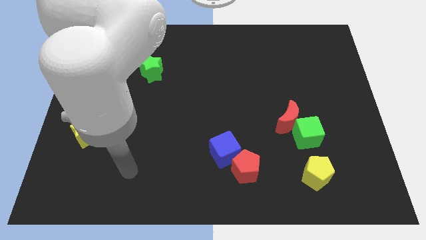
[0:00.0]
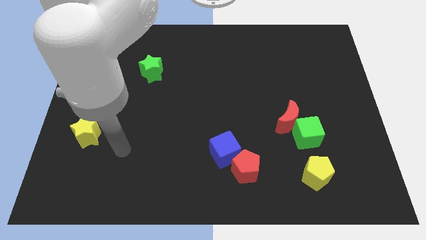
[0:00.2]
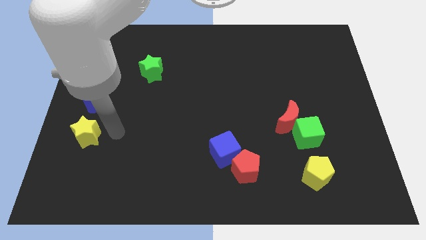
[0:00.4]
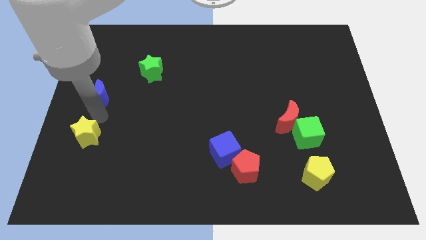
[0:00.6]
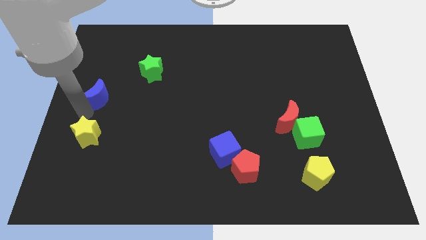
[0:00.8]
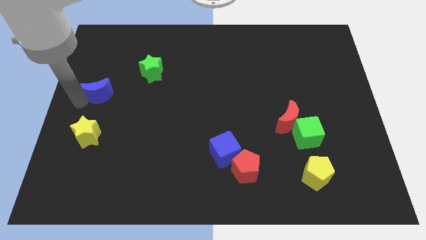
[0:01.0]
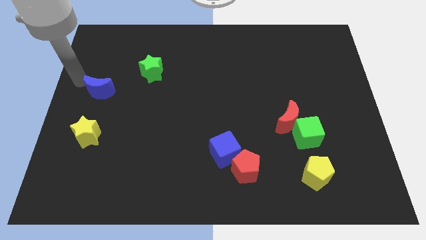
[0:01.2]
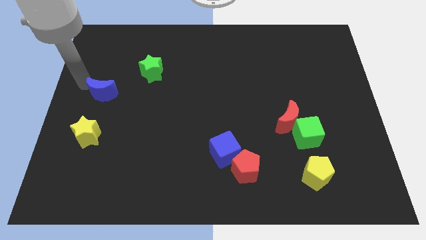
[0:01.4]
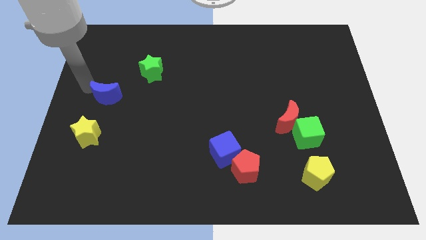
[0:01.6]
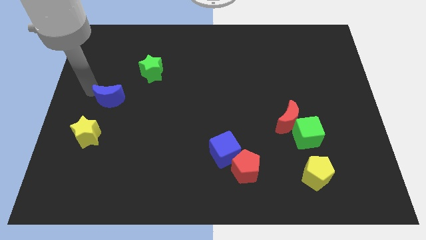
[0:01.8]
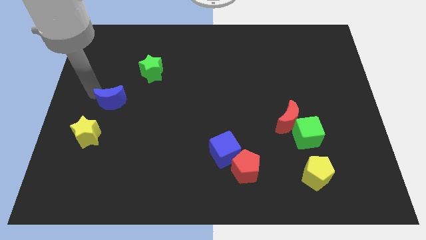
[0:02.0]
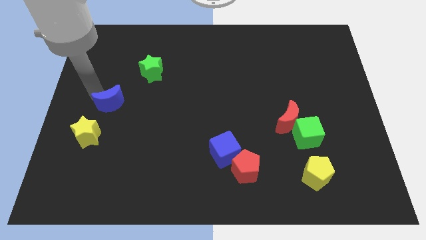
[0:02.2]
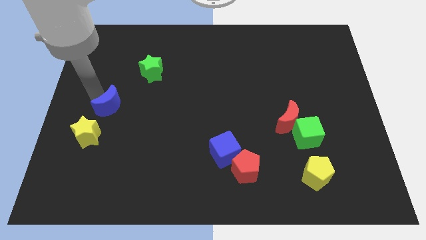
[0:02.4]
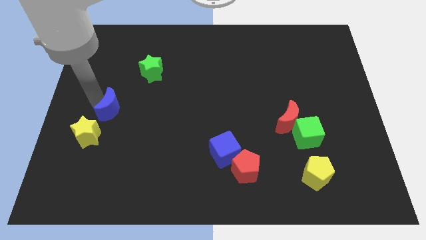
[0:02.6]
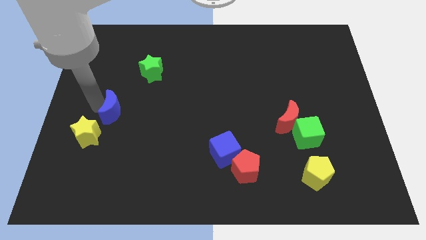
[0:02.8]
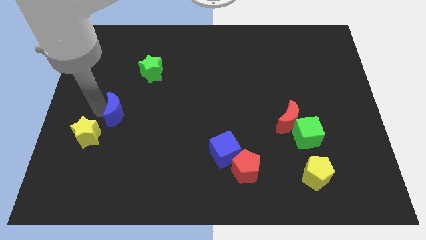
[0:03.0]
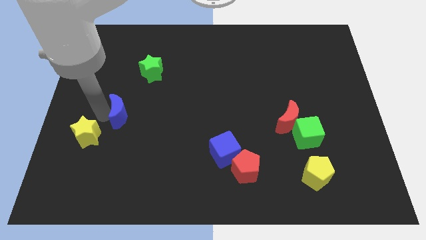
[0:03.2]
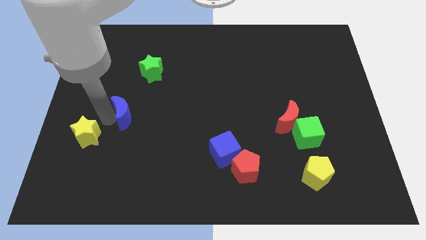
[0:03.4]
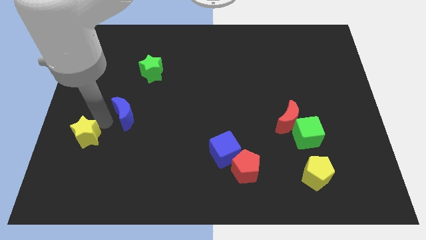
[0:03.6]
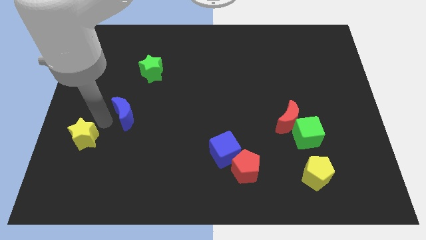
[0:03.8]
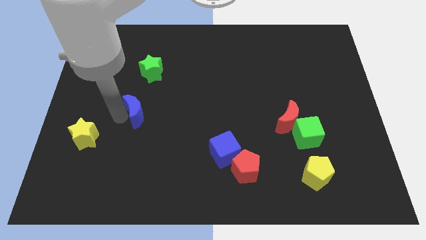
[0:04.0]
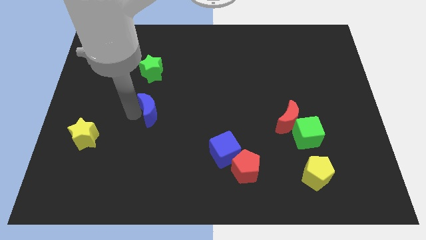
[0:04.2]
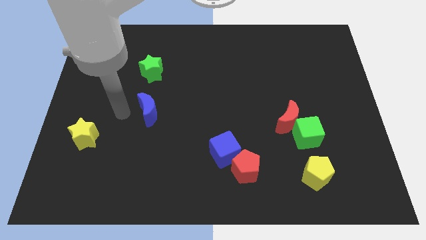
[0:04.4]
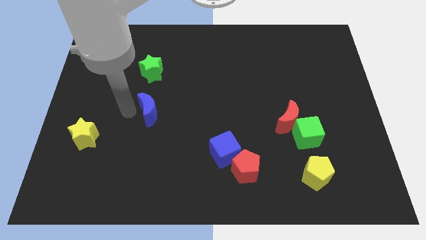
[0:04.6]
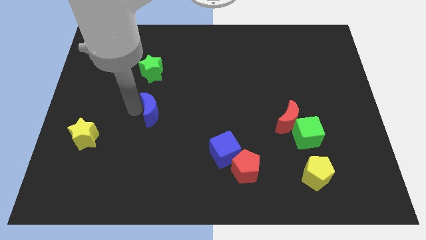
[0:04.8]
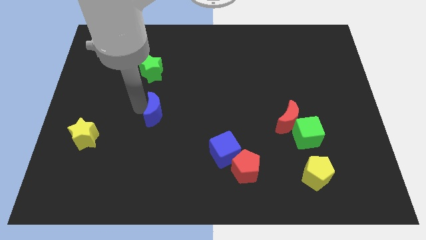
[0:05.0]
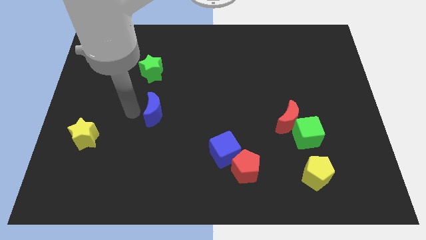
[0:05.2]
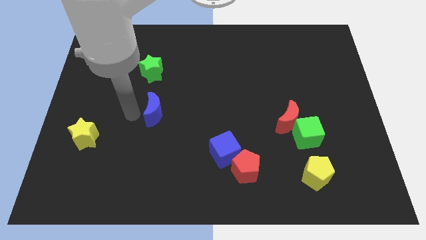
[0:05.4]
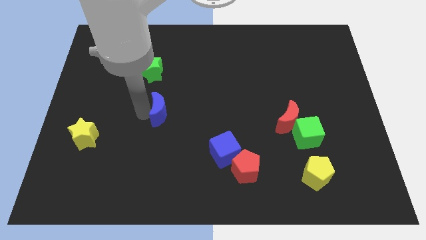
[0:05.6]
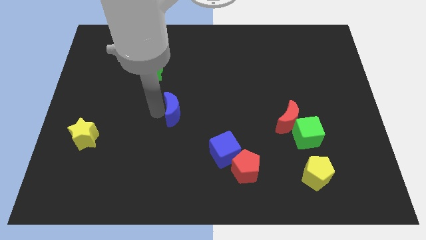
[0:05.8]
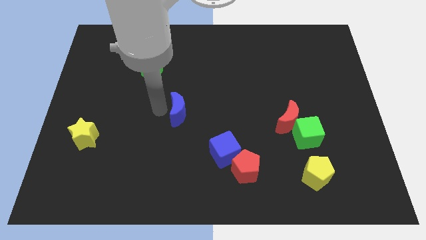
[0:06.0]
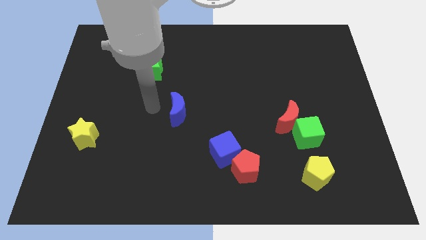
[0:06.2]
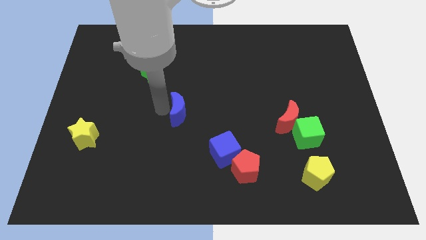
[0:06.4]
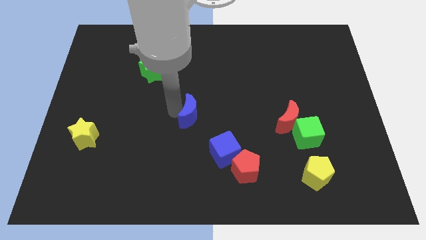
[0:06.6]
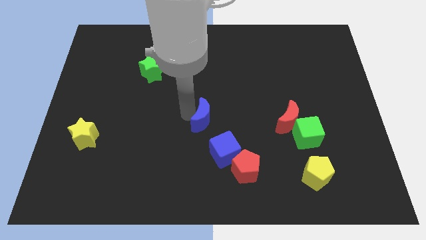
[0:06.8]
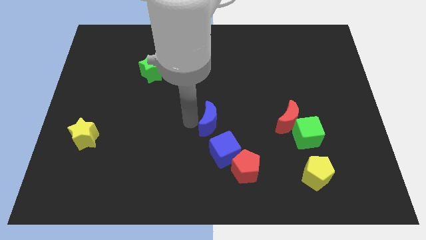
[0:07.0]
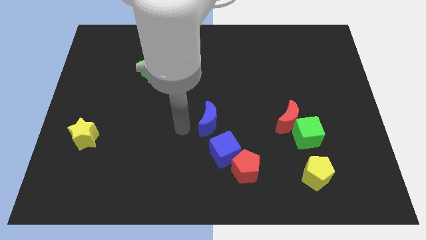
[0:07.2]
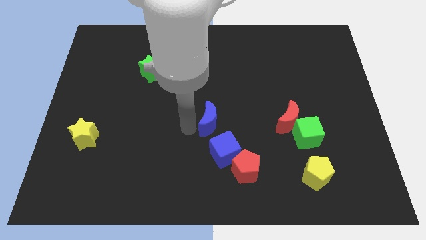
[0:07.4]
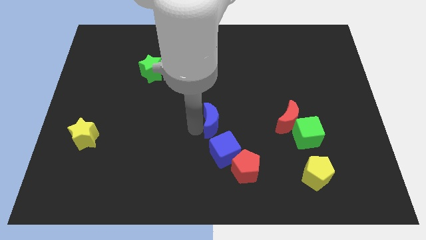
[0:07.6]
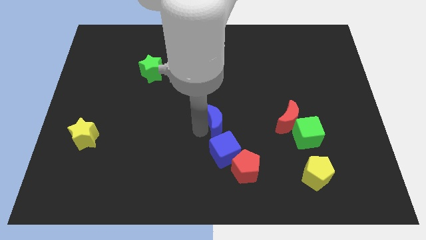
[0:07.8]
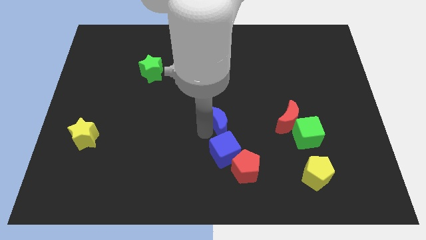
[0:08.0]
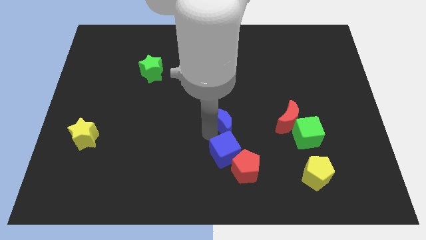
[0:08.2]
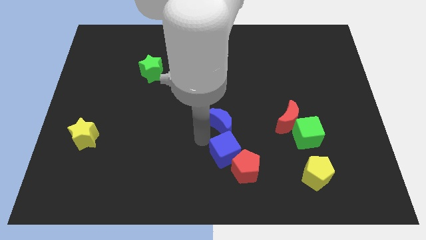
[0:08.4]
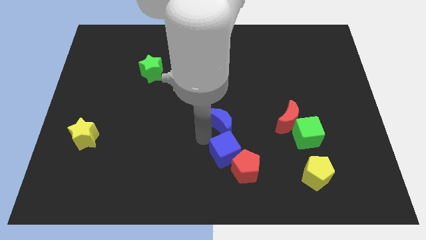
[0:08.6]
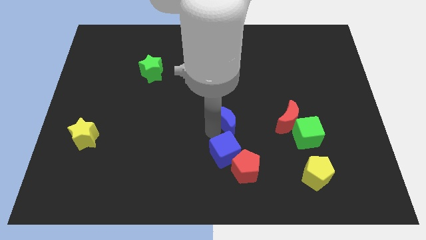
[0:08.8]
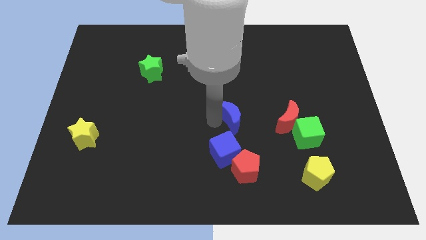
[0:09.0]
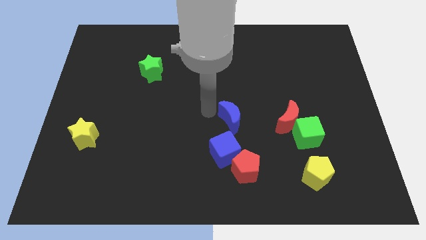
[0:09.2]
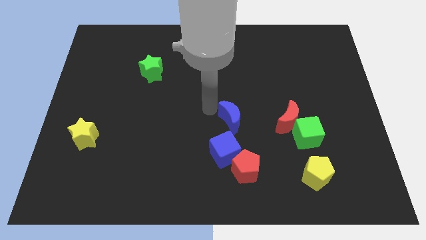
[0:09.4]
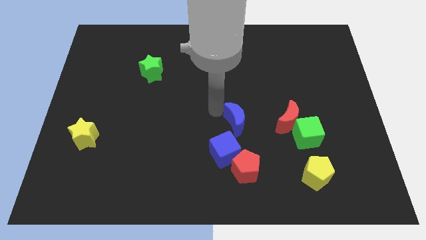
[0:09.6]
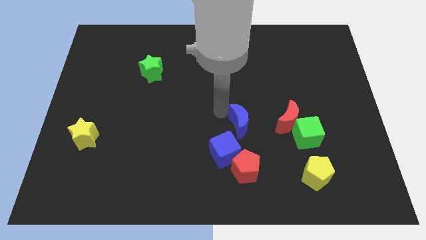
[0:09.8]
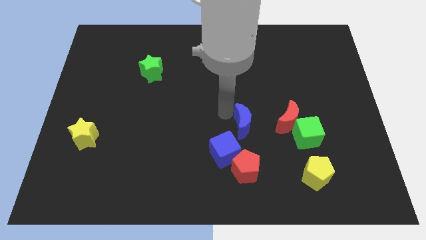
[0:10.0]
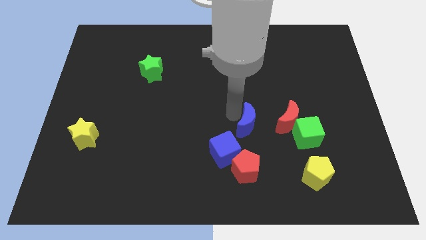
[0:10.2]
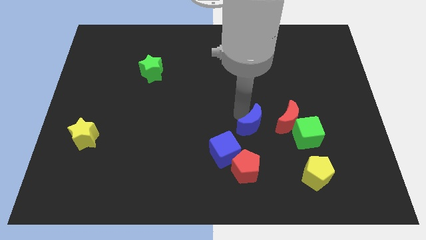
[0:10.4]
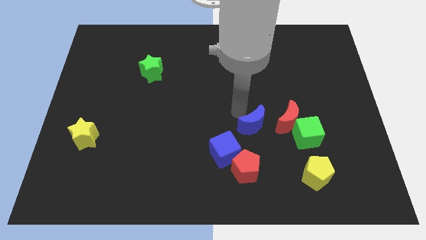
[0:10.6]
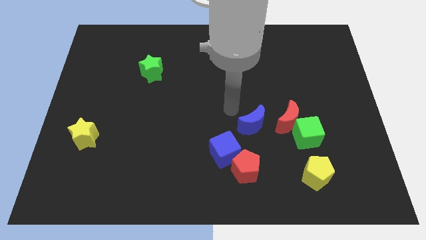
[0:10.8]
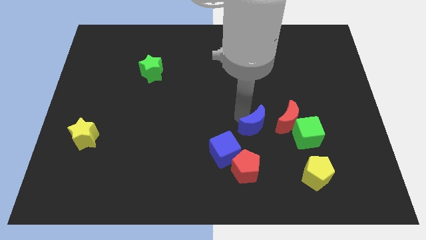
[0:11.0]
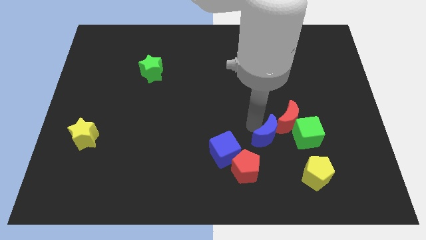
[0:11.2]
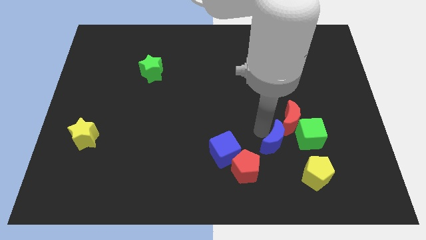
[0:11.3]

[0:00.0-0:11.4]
push the blue moon below the red moon
